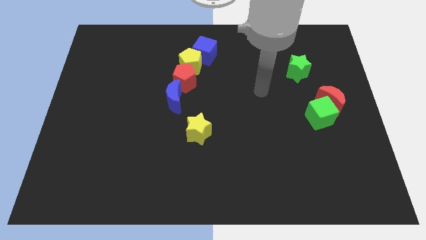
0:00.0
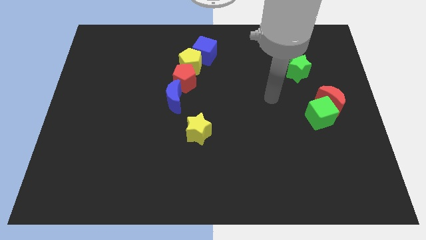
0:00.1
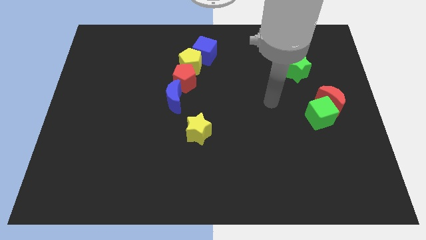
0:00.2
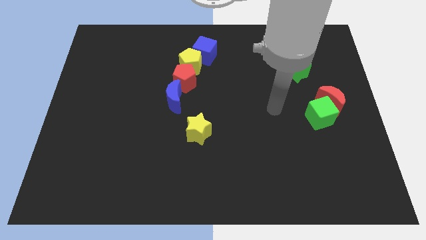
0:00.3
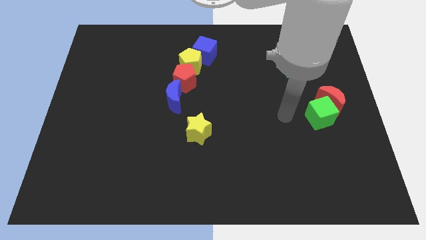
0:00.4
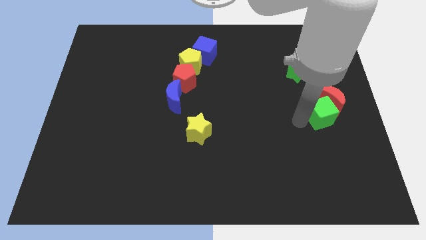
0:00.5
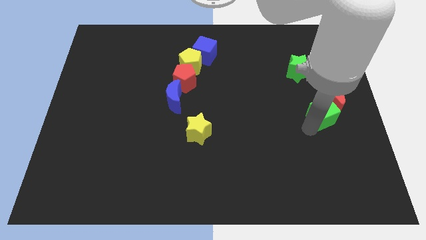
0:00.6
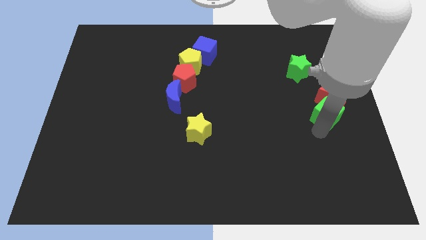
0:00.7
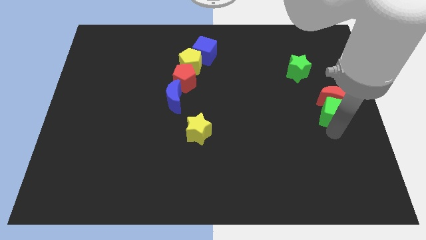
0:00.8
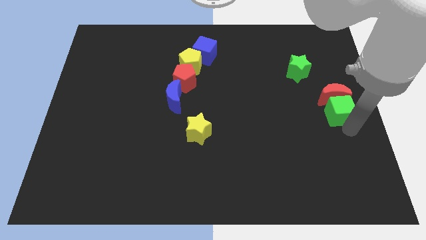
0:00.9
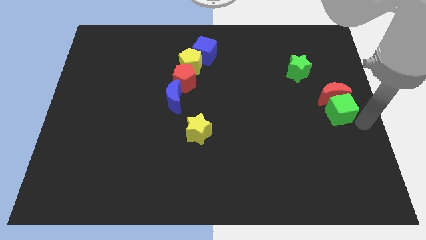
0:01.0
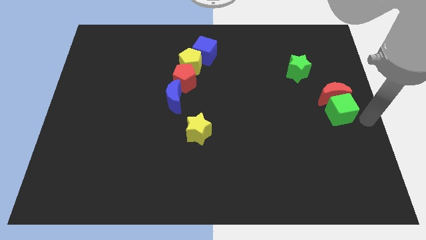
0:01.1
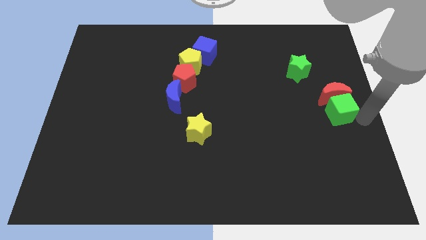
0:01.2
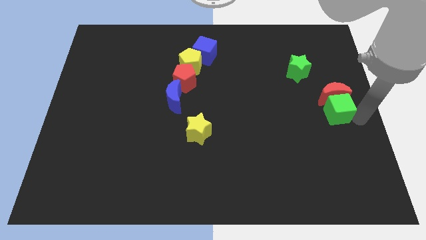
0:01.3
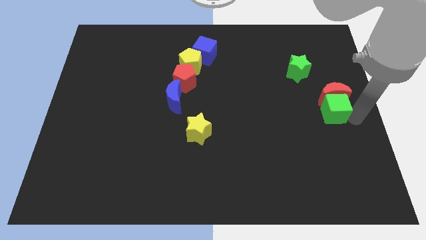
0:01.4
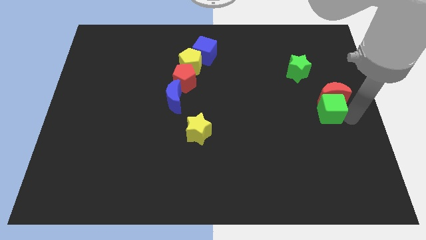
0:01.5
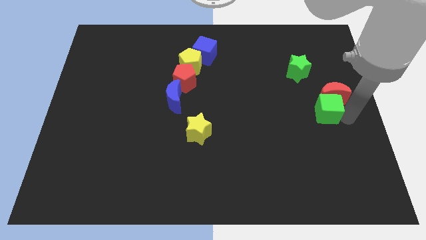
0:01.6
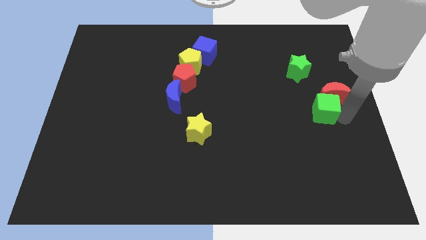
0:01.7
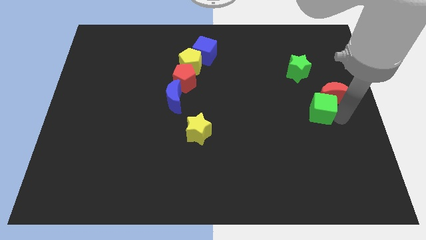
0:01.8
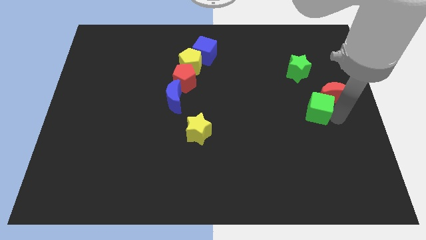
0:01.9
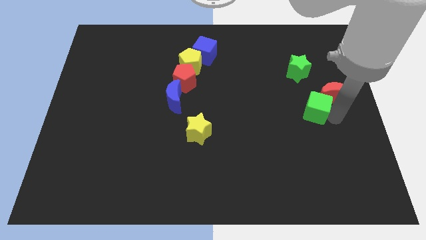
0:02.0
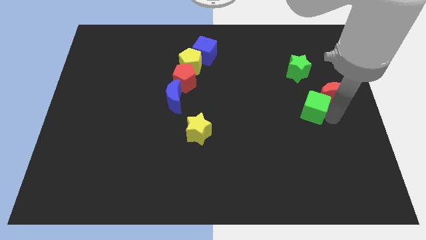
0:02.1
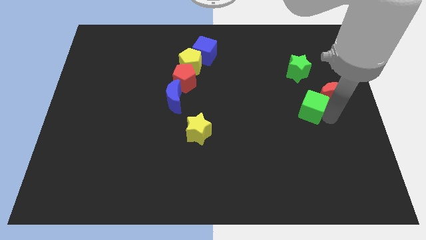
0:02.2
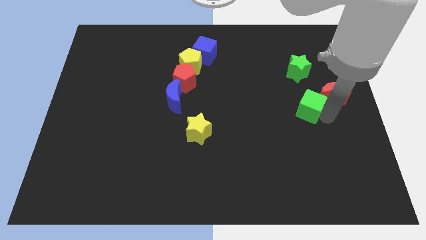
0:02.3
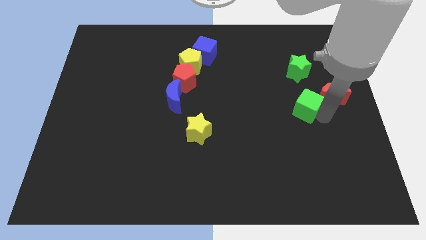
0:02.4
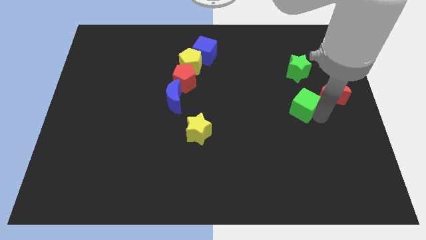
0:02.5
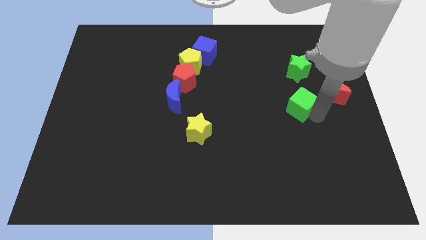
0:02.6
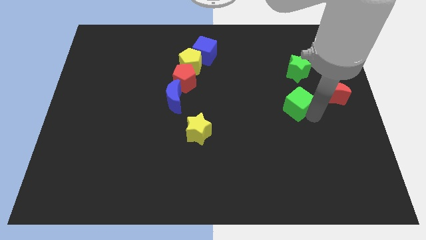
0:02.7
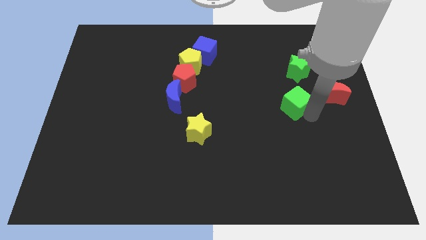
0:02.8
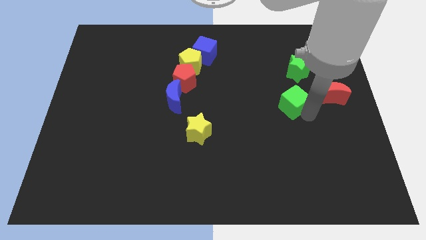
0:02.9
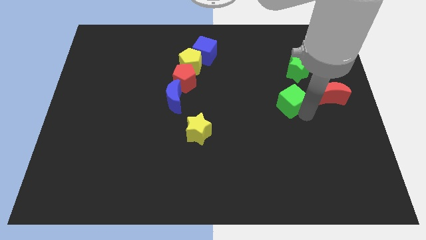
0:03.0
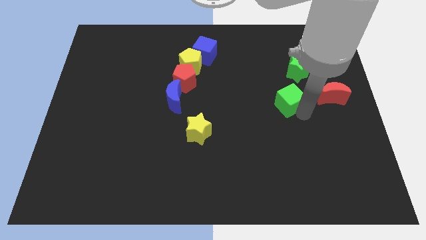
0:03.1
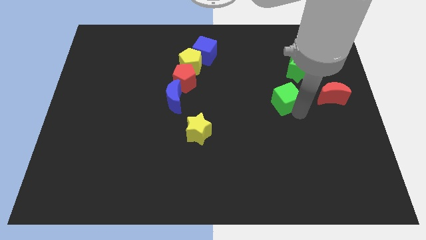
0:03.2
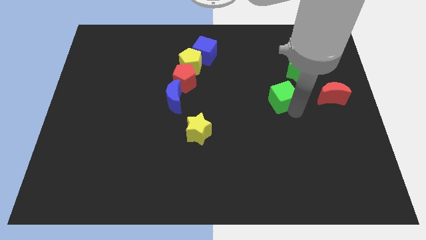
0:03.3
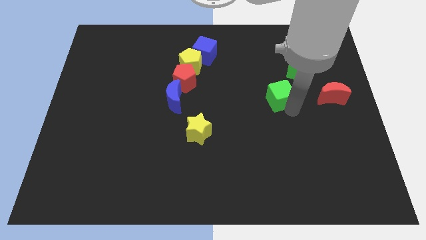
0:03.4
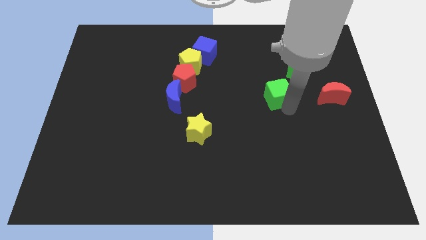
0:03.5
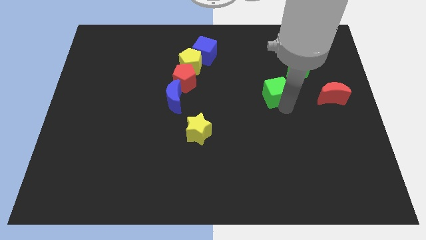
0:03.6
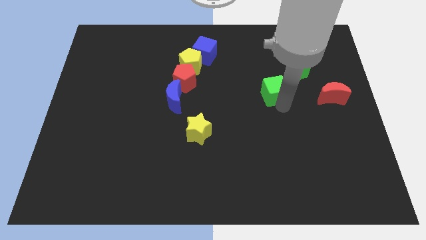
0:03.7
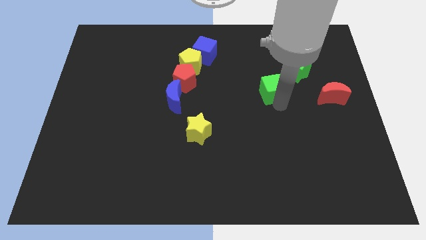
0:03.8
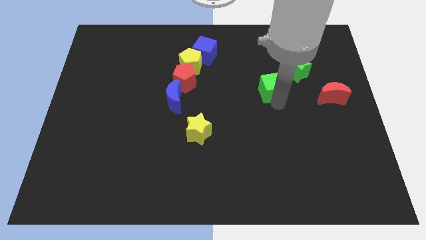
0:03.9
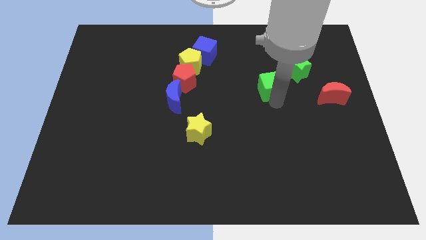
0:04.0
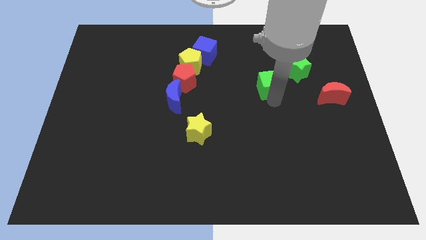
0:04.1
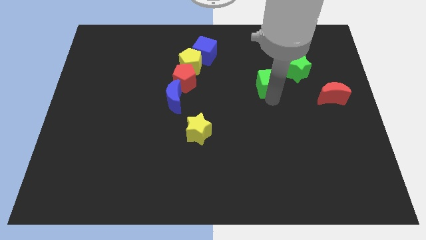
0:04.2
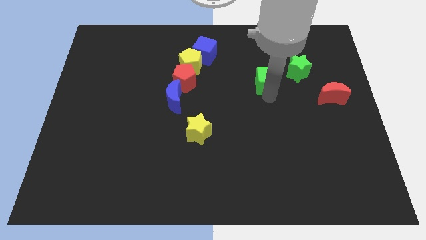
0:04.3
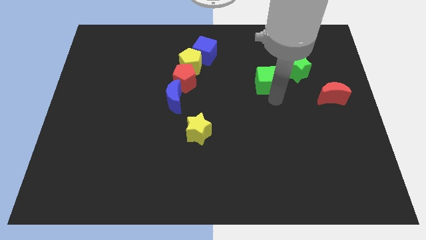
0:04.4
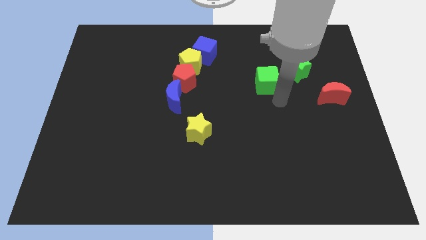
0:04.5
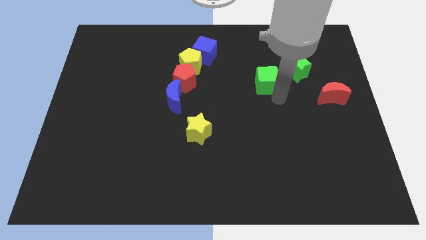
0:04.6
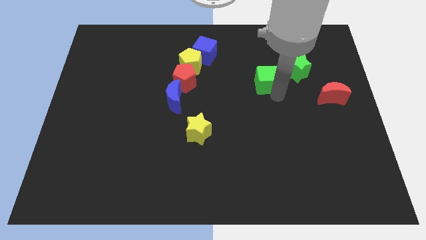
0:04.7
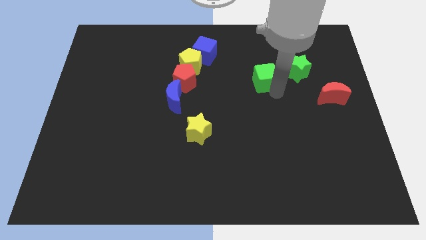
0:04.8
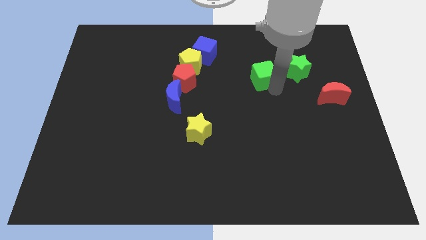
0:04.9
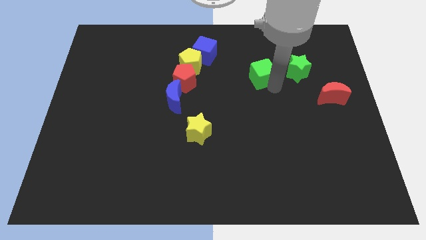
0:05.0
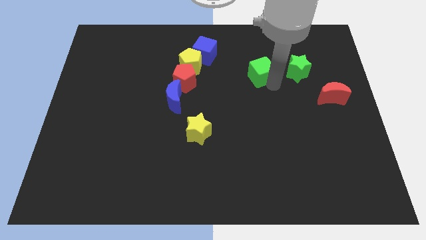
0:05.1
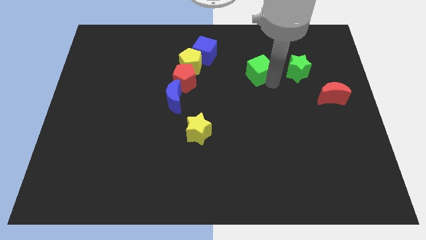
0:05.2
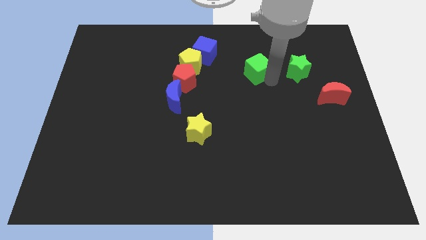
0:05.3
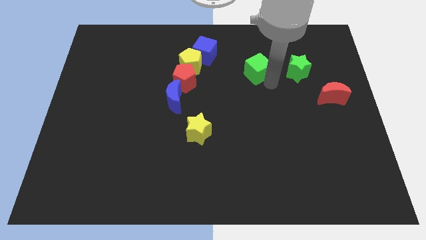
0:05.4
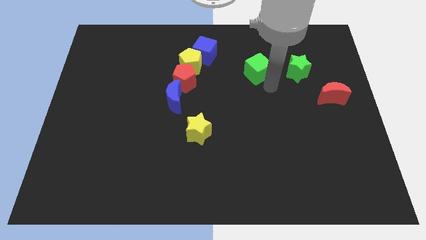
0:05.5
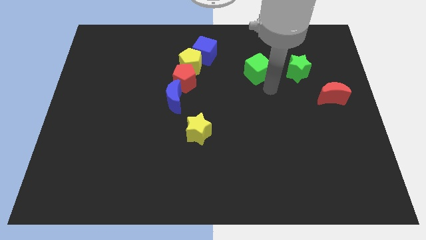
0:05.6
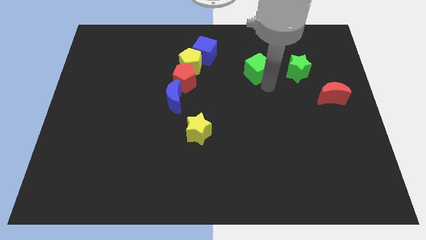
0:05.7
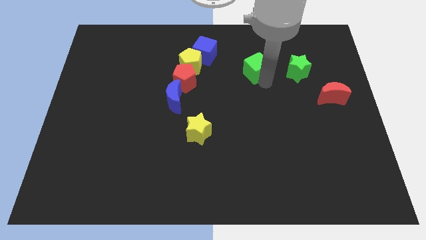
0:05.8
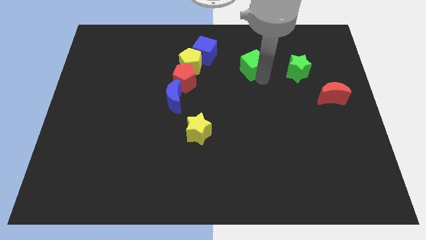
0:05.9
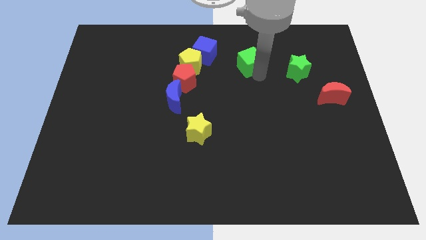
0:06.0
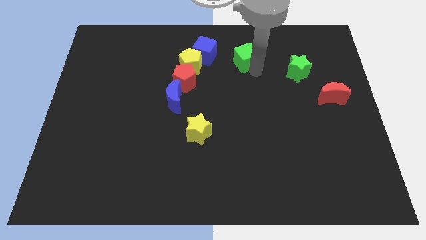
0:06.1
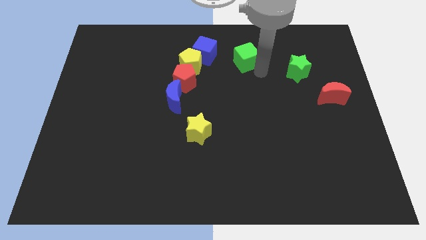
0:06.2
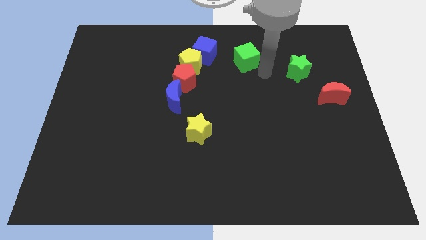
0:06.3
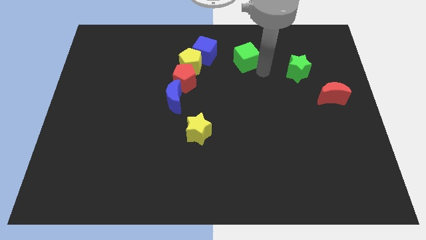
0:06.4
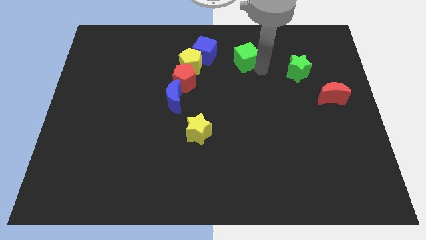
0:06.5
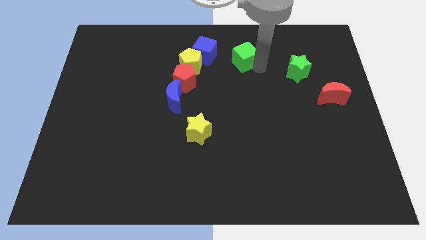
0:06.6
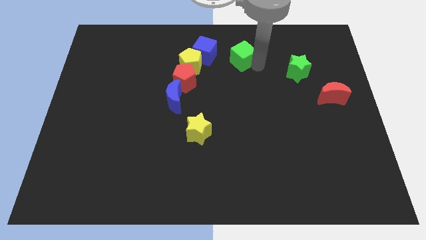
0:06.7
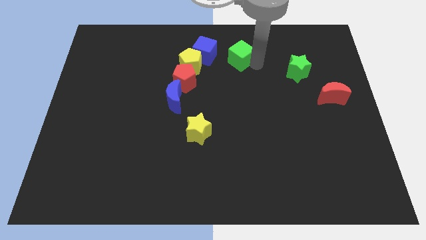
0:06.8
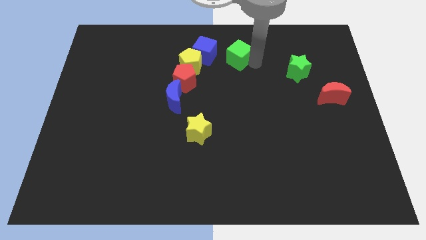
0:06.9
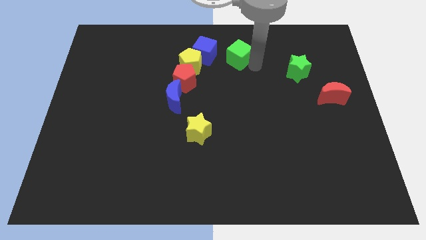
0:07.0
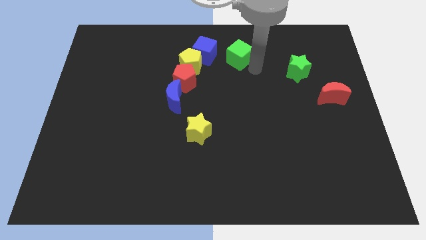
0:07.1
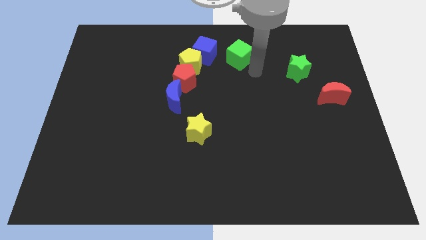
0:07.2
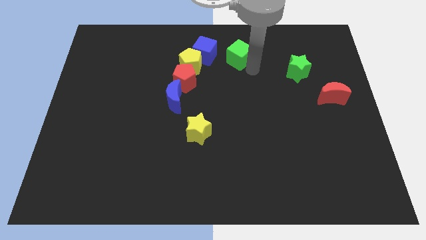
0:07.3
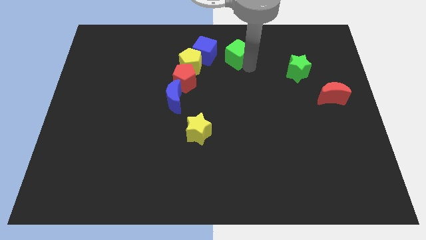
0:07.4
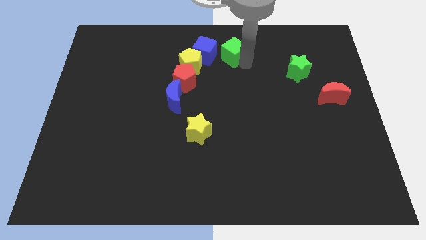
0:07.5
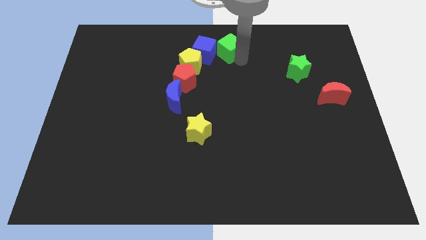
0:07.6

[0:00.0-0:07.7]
push the green cube to the top

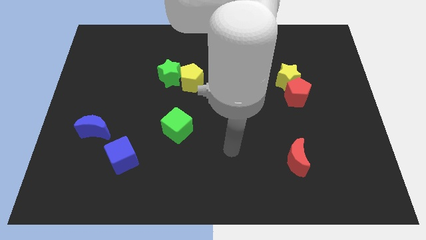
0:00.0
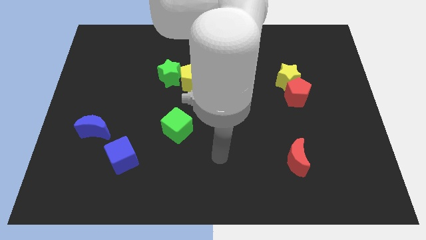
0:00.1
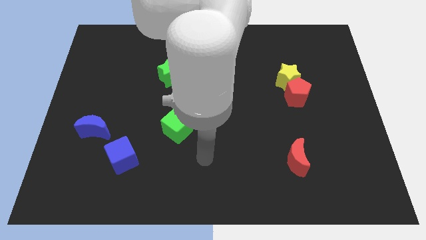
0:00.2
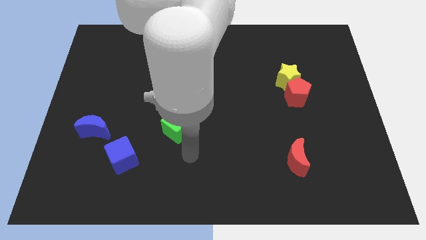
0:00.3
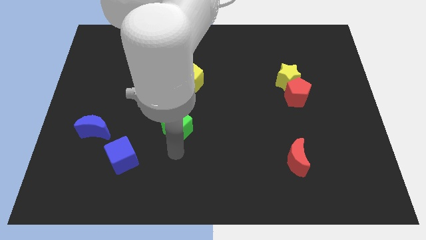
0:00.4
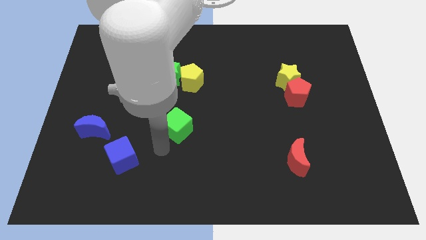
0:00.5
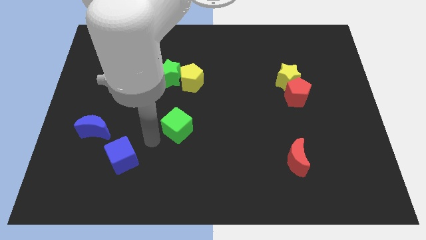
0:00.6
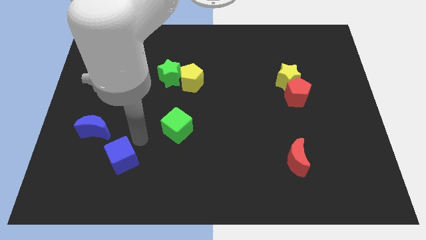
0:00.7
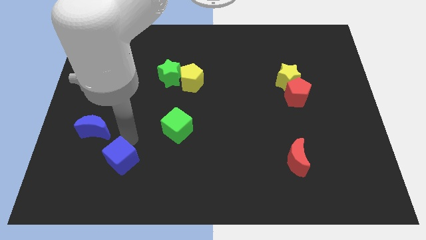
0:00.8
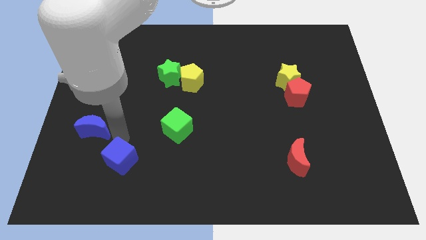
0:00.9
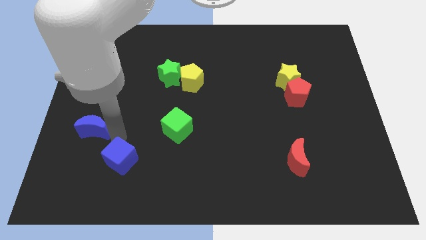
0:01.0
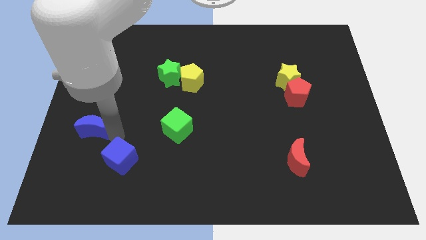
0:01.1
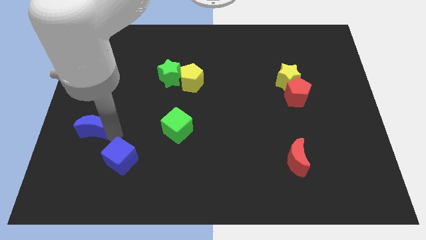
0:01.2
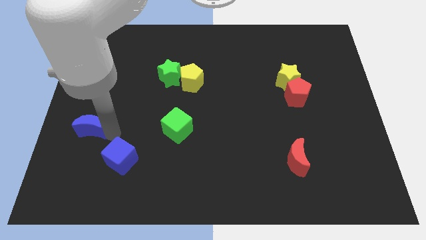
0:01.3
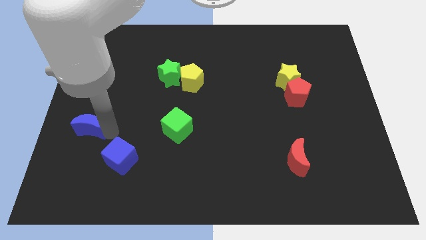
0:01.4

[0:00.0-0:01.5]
push the blue moon to the left side
